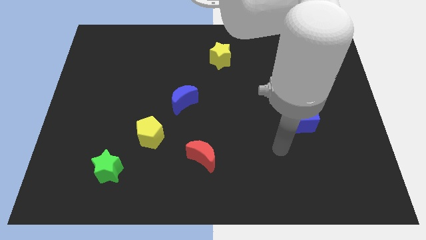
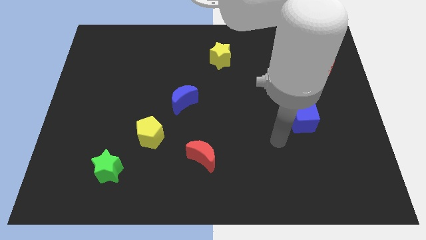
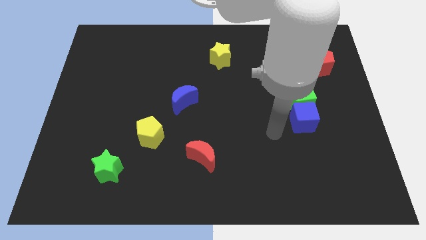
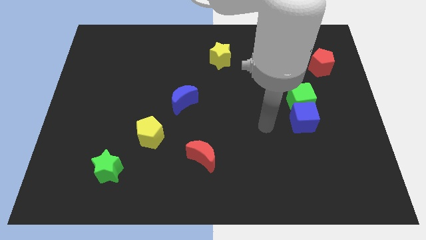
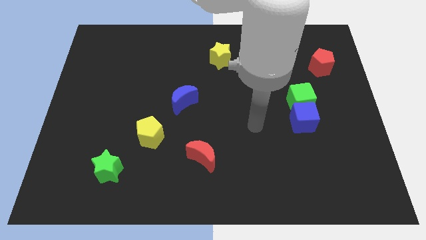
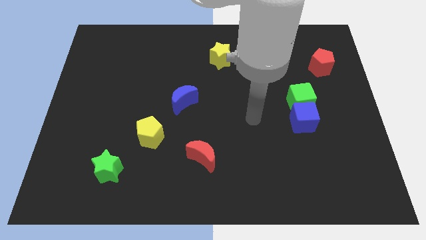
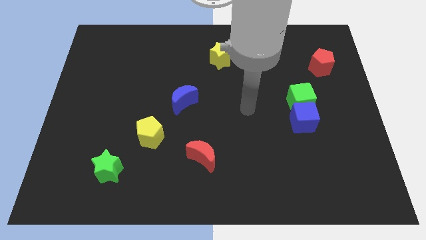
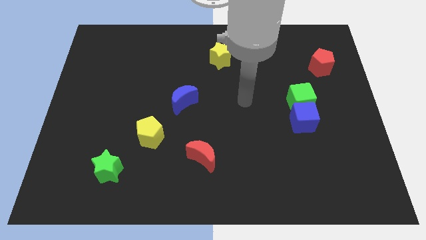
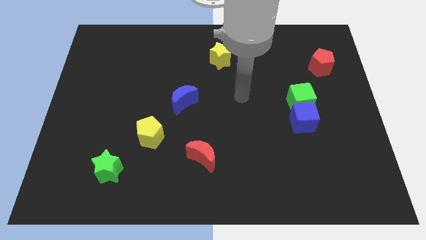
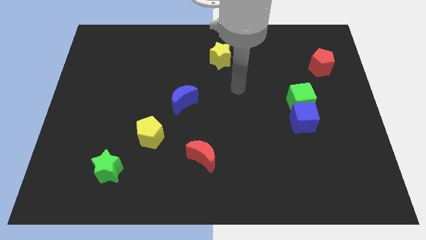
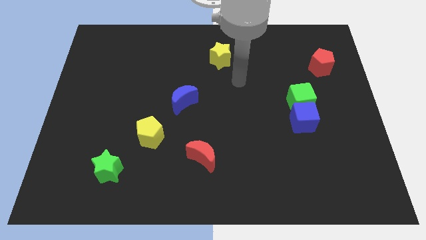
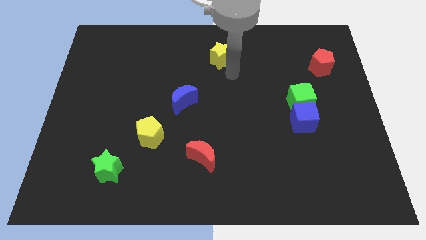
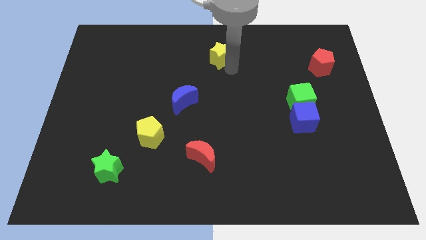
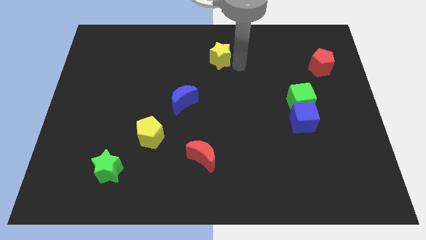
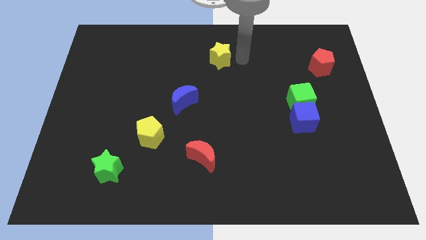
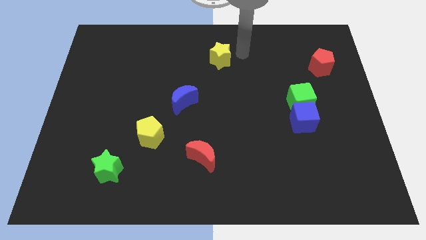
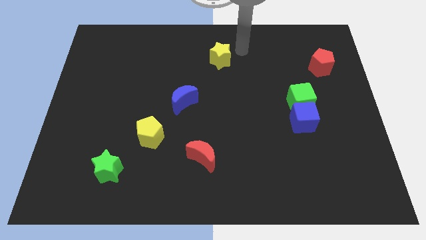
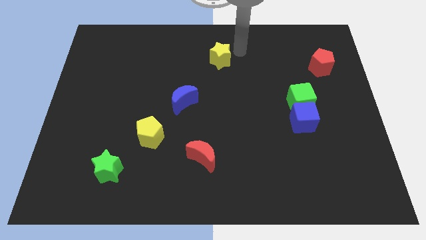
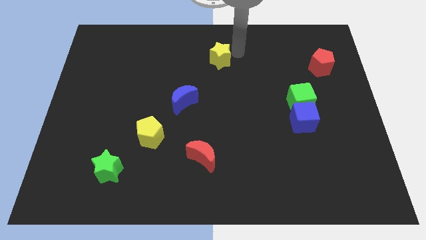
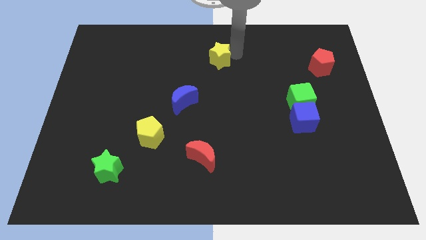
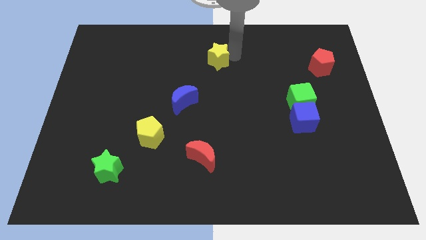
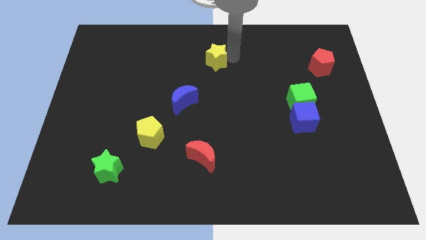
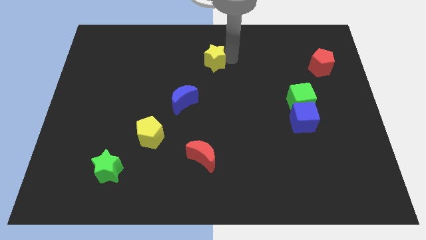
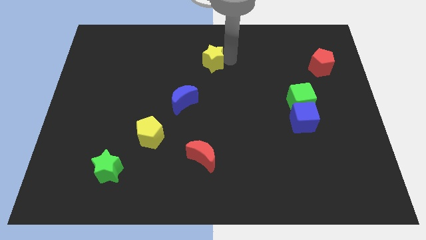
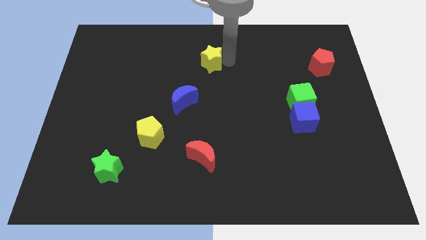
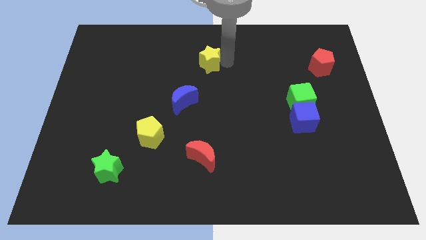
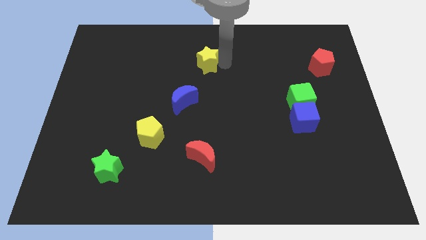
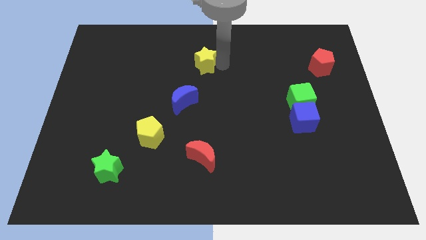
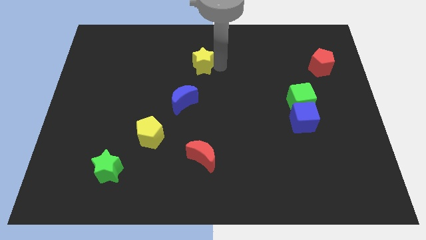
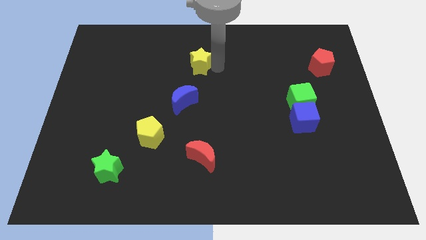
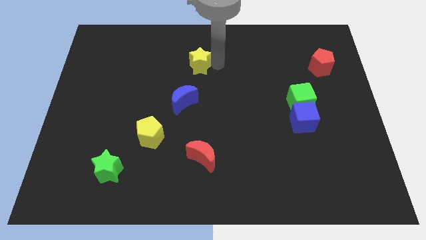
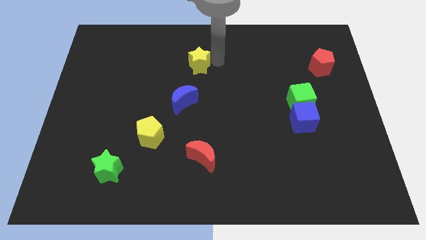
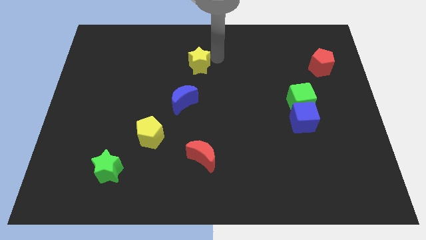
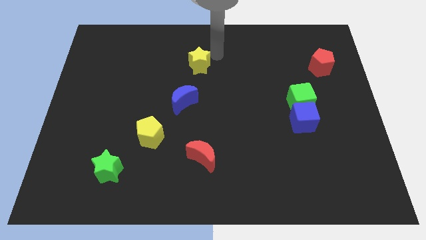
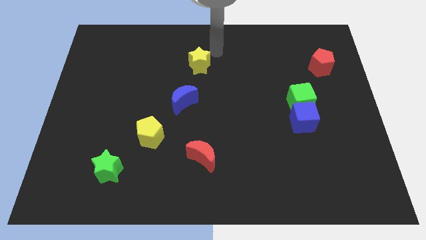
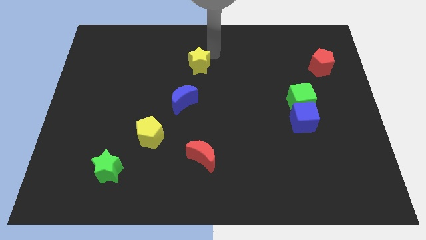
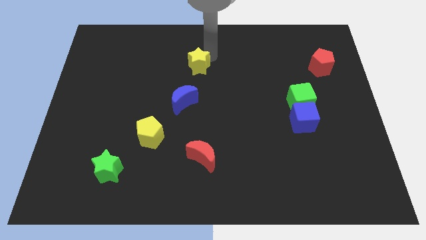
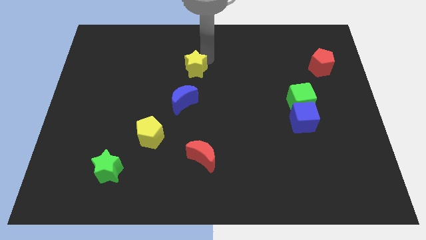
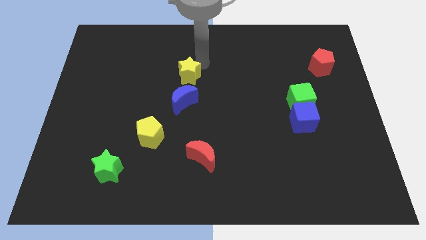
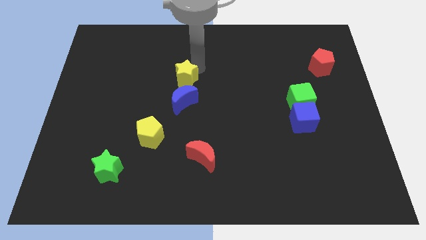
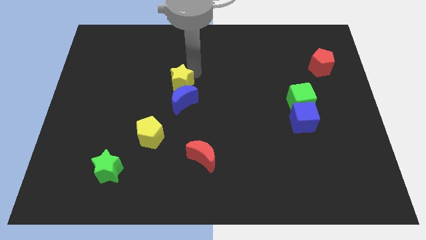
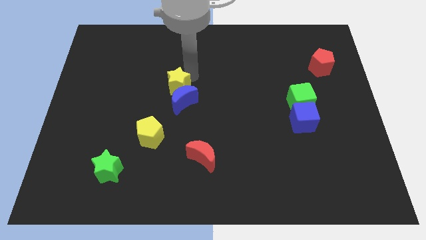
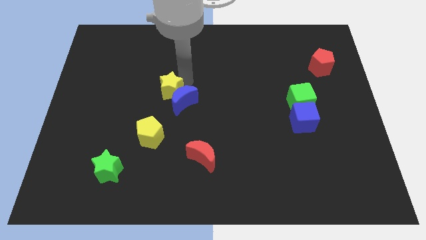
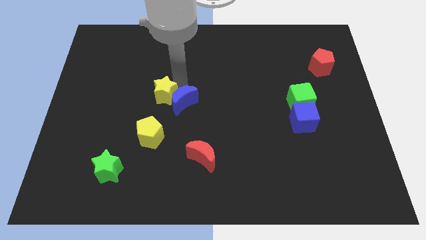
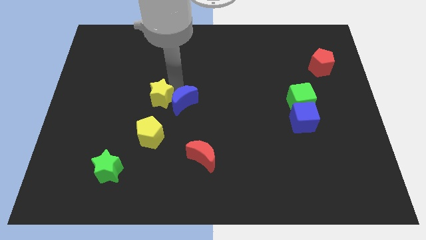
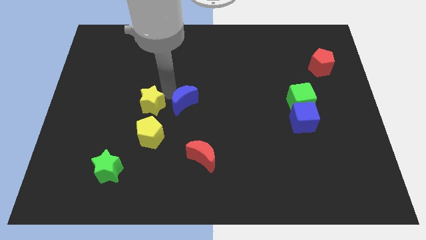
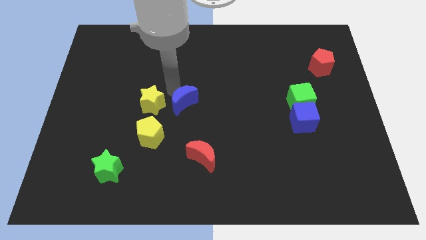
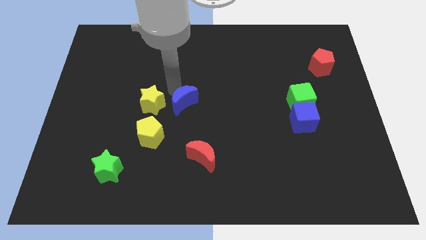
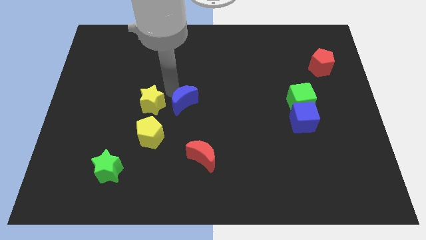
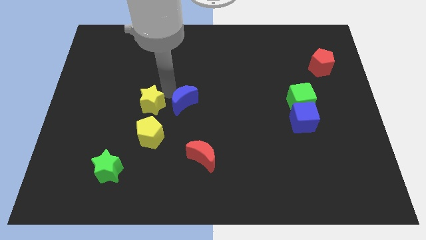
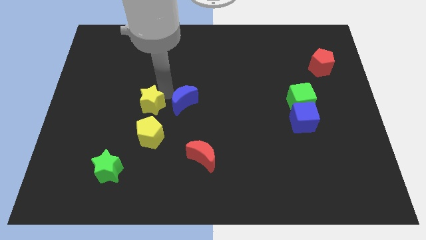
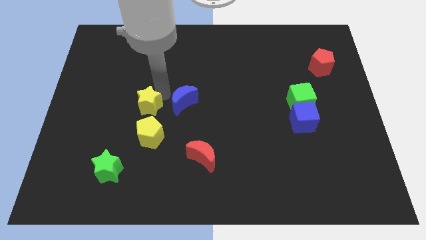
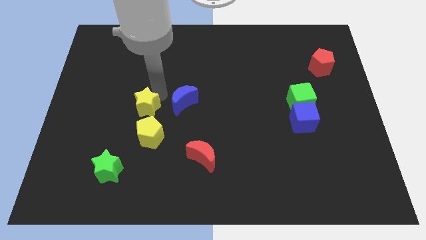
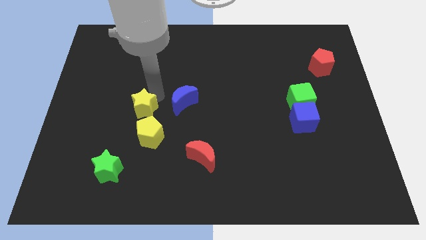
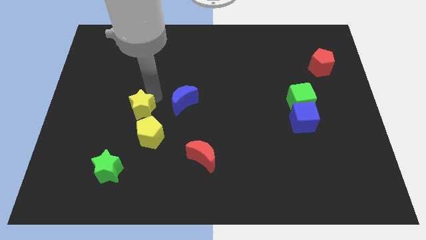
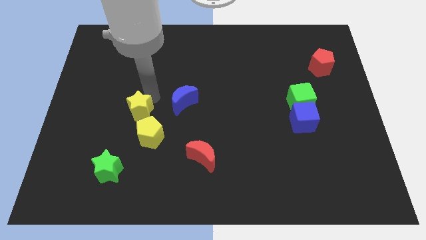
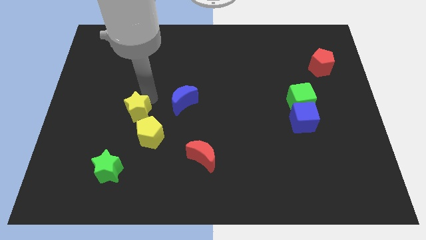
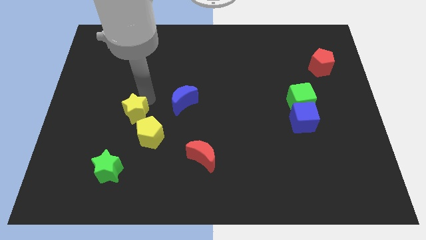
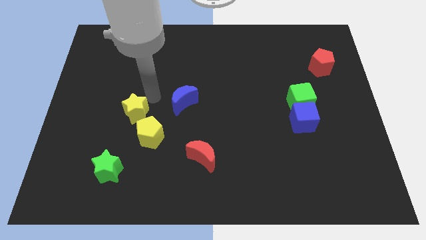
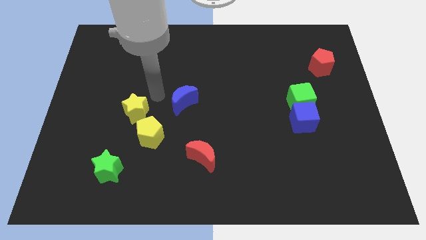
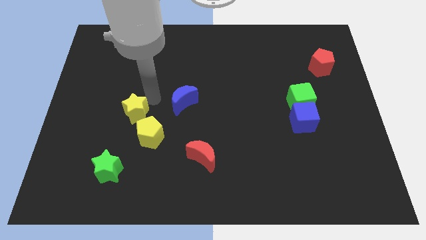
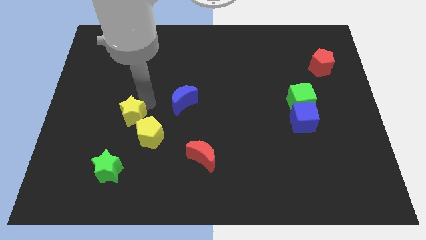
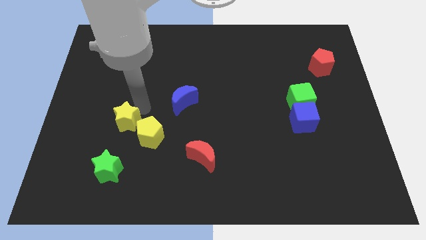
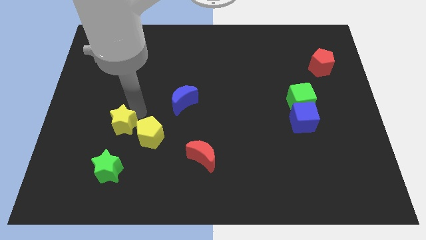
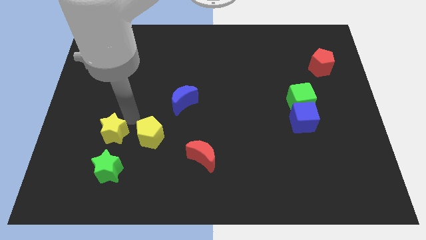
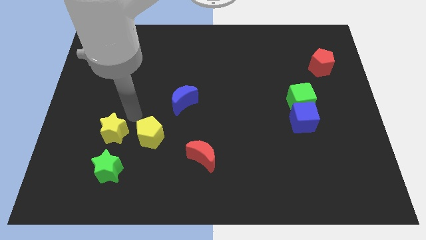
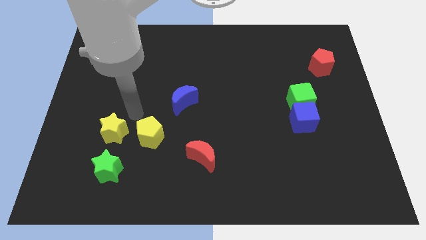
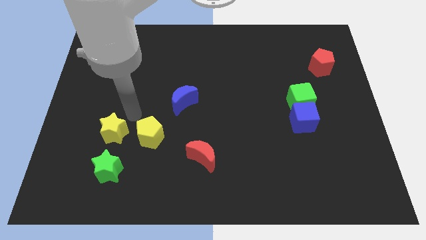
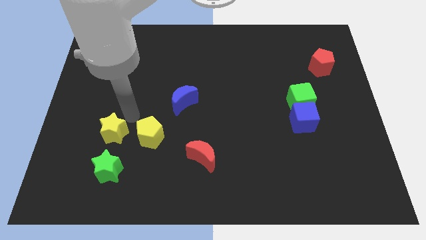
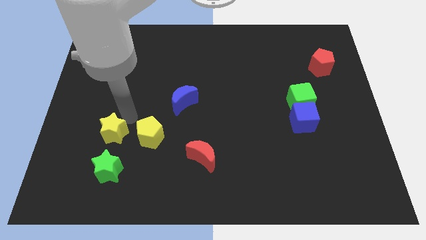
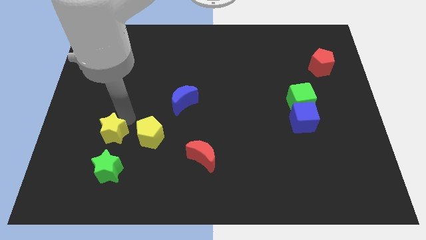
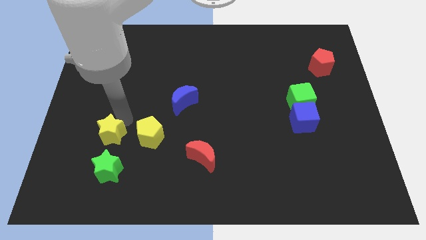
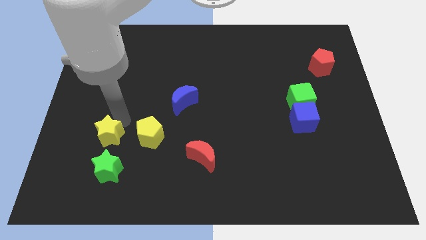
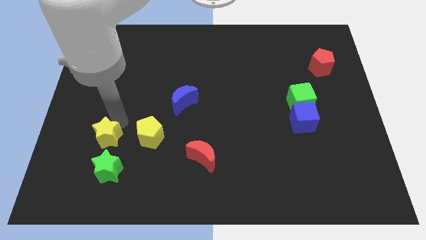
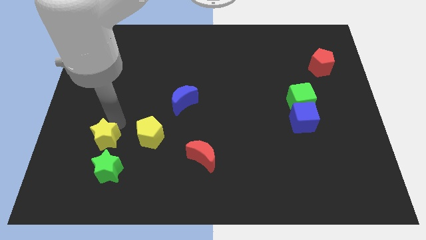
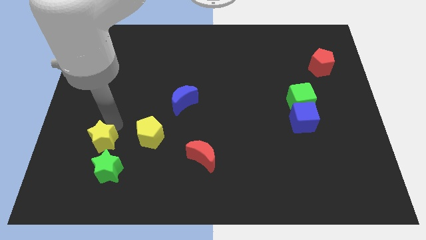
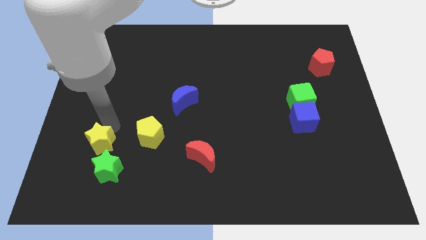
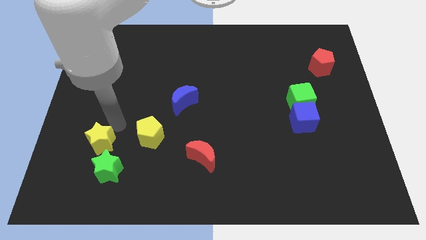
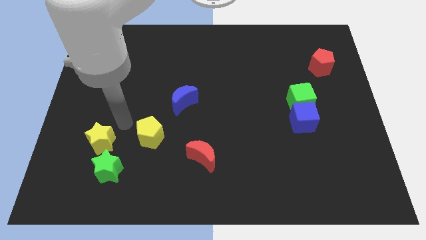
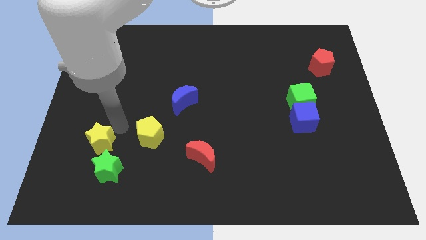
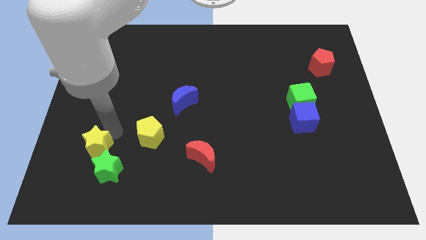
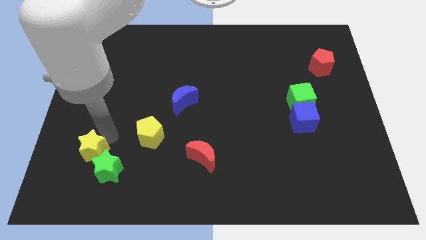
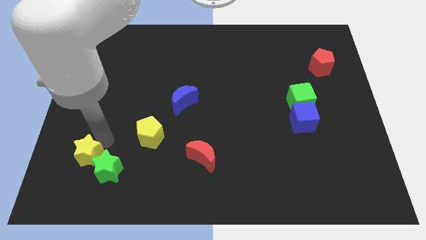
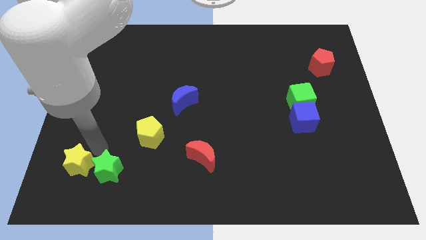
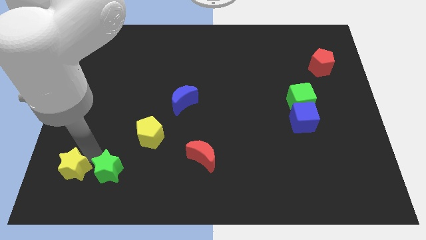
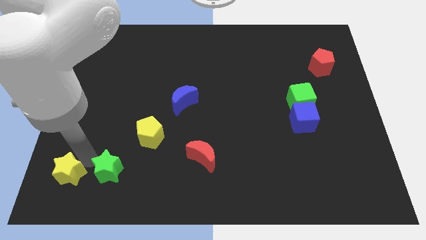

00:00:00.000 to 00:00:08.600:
slide the yellow star to the bottom left
